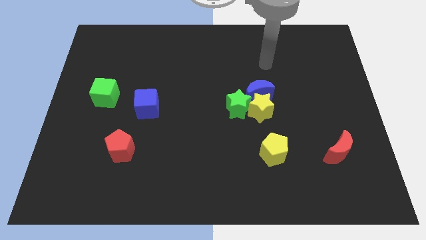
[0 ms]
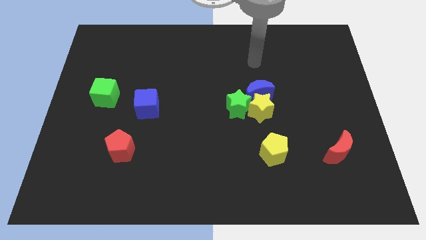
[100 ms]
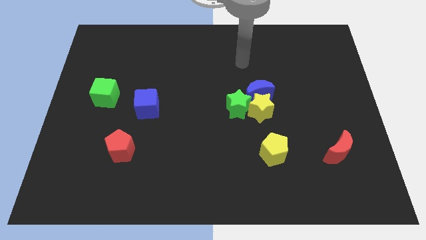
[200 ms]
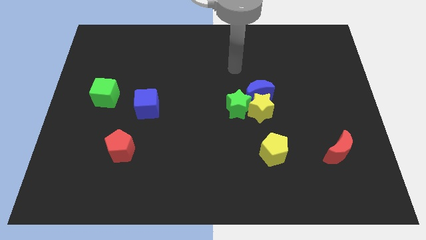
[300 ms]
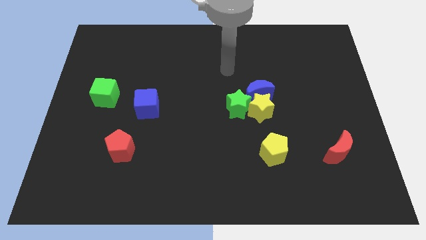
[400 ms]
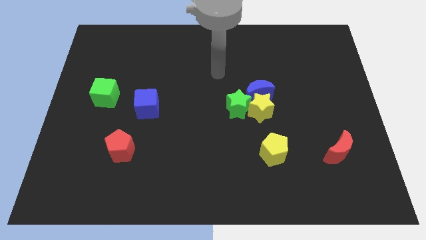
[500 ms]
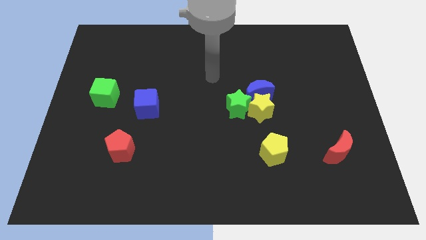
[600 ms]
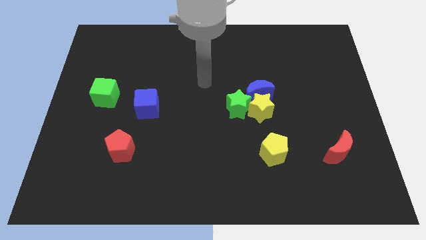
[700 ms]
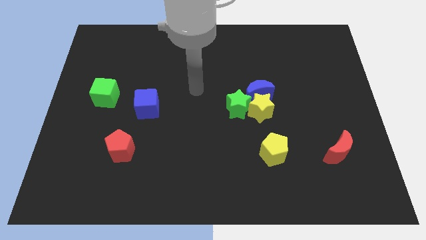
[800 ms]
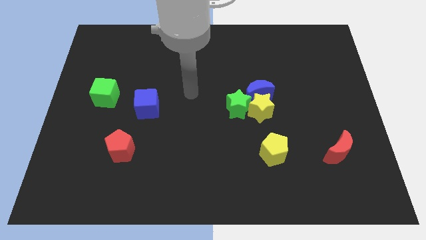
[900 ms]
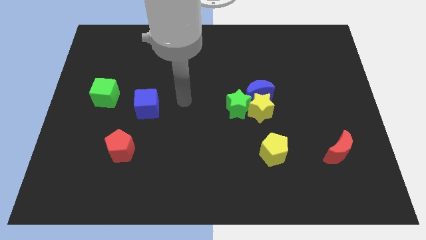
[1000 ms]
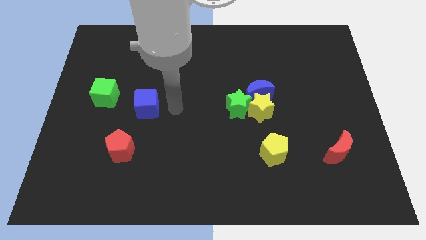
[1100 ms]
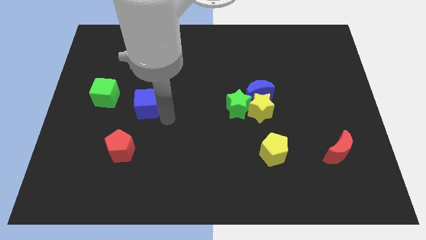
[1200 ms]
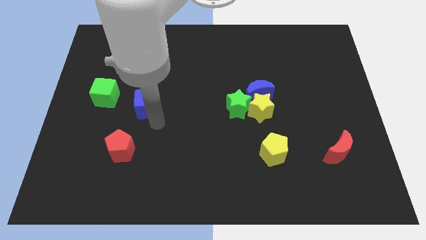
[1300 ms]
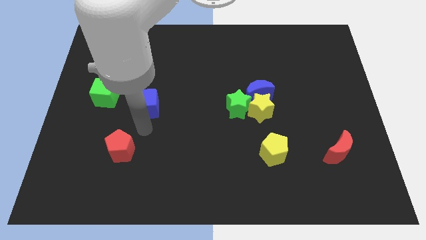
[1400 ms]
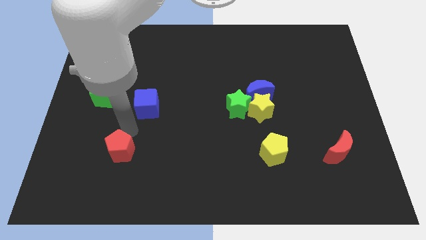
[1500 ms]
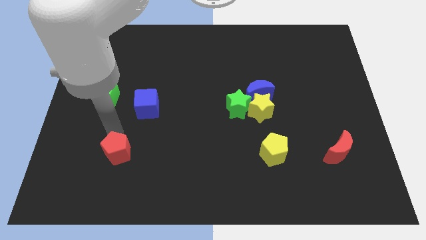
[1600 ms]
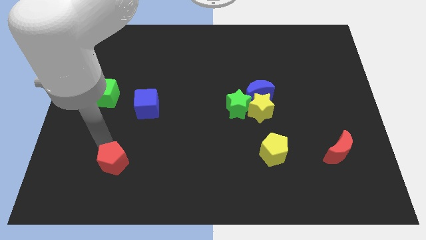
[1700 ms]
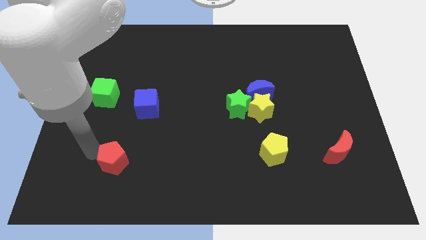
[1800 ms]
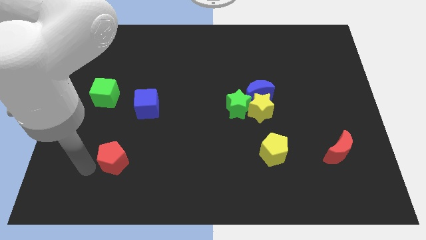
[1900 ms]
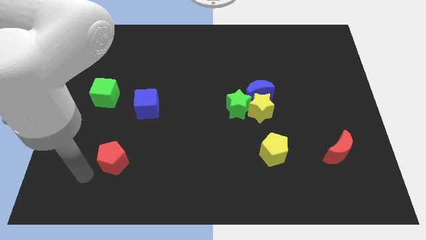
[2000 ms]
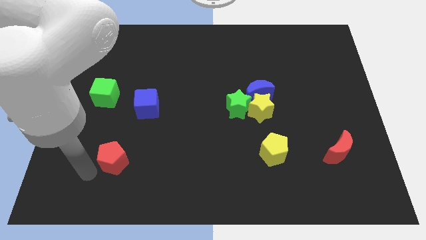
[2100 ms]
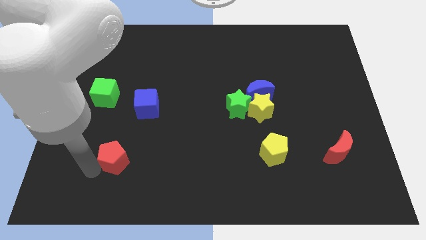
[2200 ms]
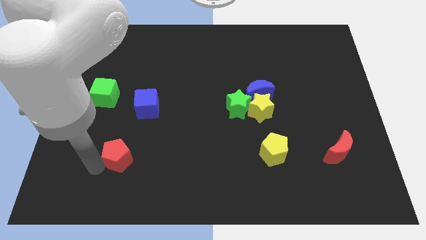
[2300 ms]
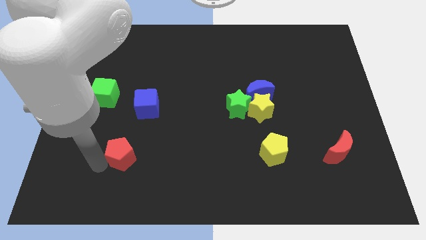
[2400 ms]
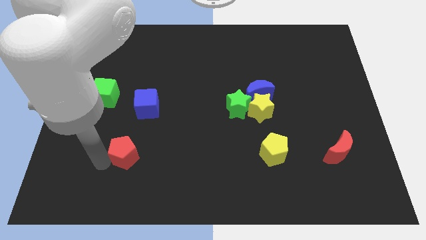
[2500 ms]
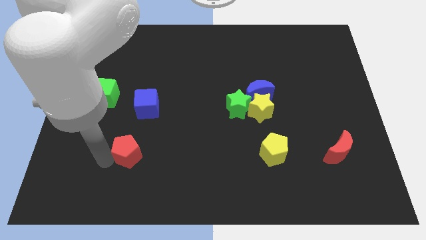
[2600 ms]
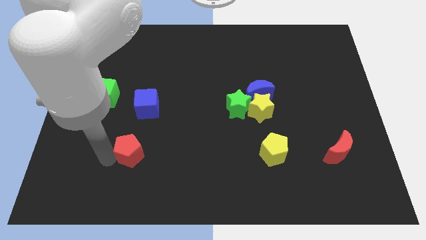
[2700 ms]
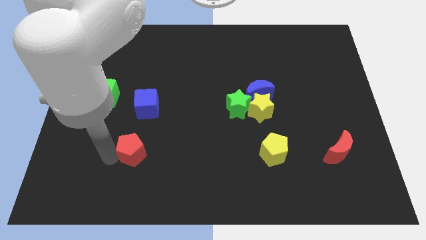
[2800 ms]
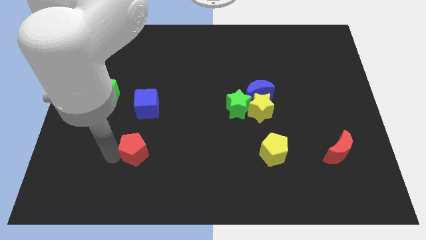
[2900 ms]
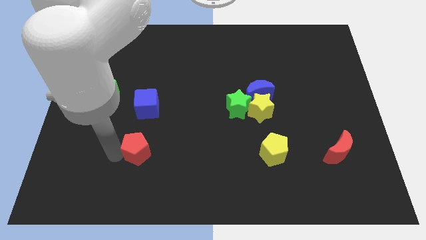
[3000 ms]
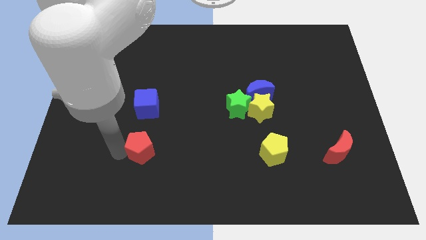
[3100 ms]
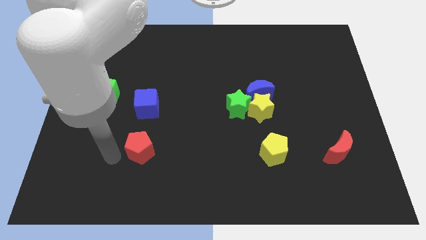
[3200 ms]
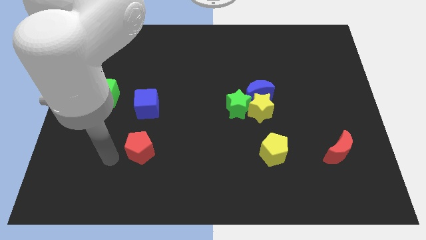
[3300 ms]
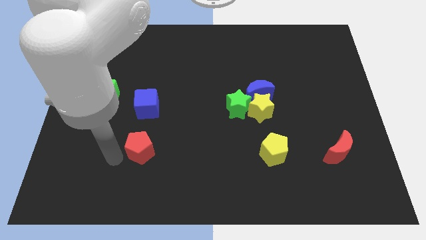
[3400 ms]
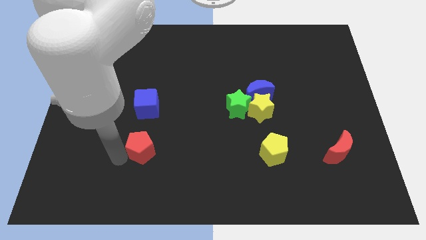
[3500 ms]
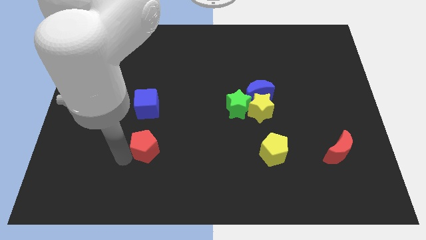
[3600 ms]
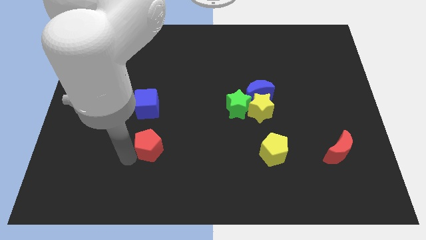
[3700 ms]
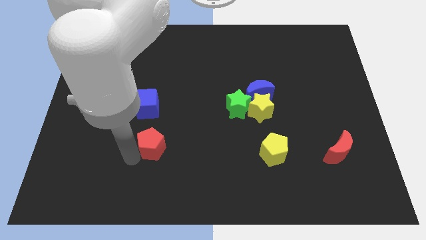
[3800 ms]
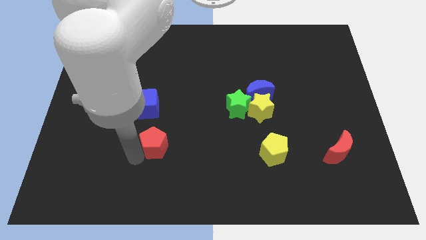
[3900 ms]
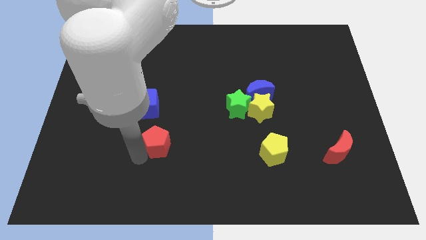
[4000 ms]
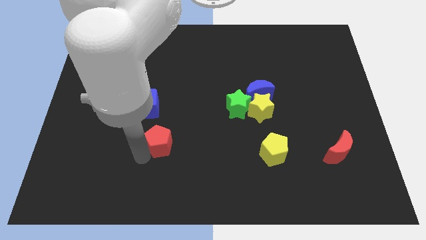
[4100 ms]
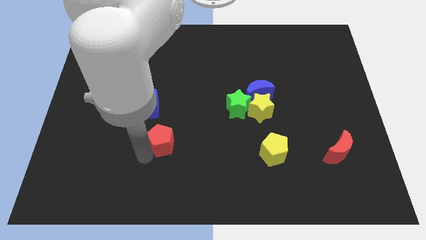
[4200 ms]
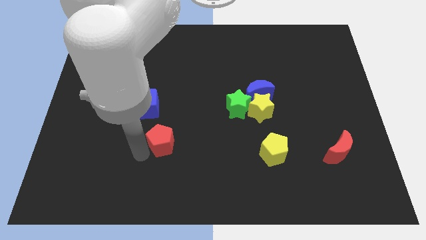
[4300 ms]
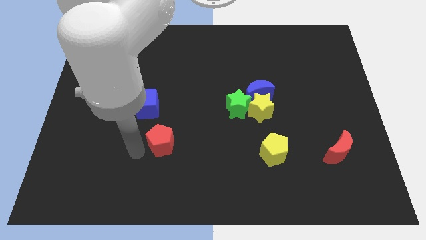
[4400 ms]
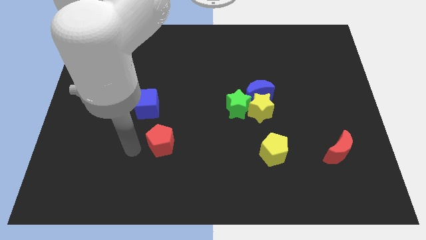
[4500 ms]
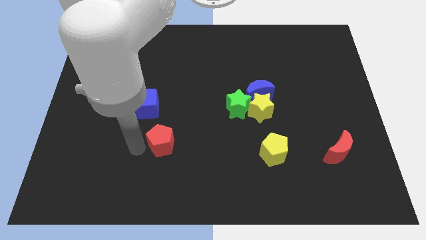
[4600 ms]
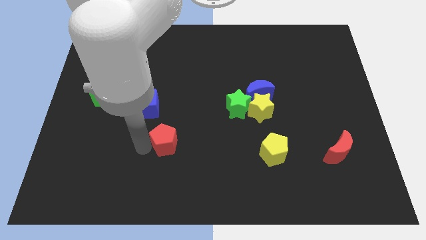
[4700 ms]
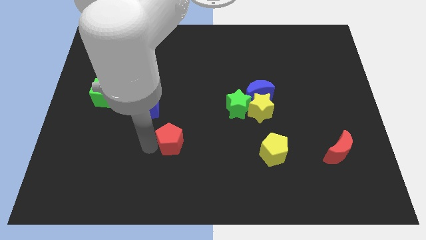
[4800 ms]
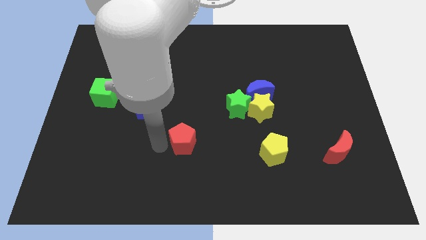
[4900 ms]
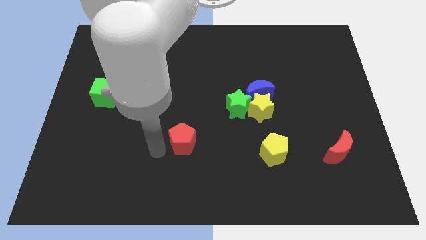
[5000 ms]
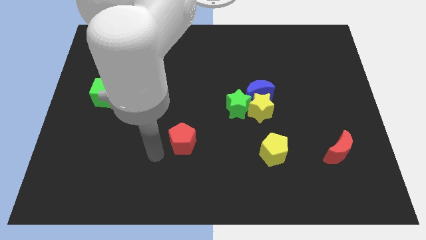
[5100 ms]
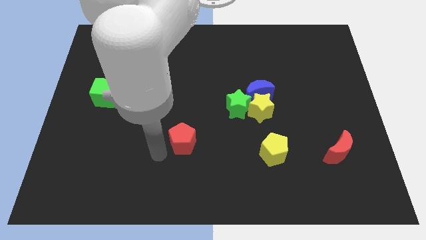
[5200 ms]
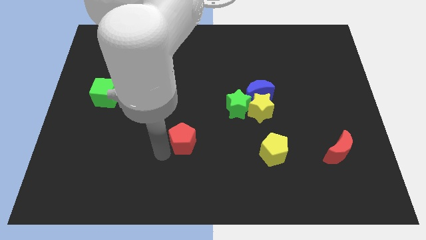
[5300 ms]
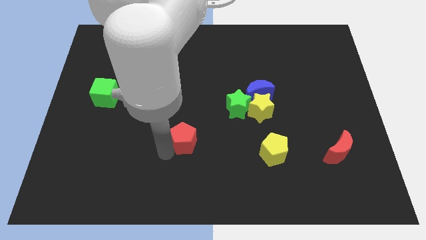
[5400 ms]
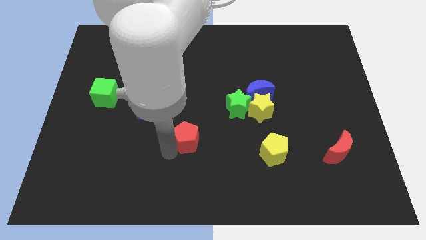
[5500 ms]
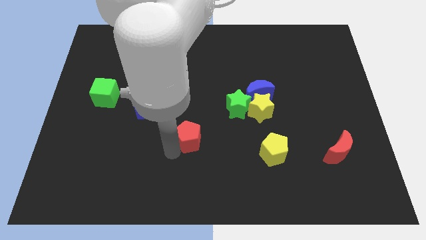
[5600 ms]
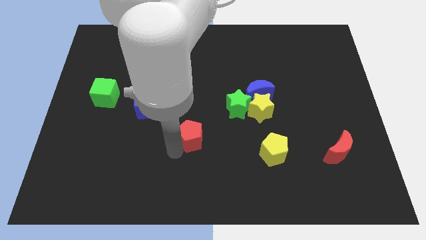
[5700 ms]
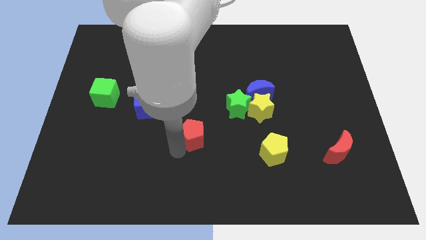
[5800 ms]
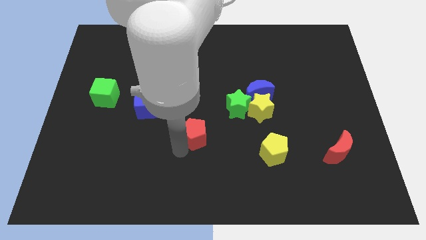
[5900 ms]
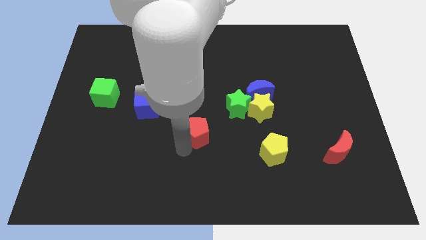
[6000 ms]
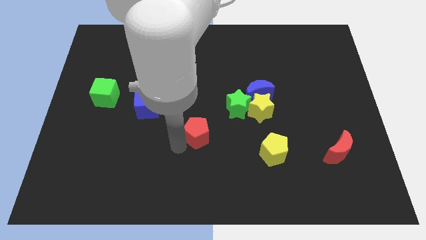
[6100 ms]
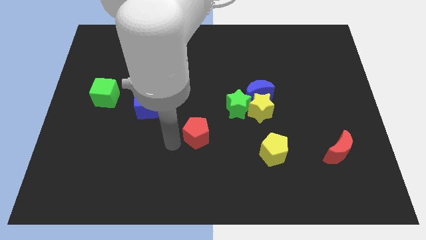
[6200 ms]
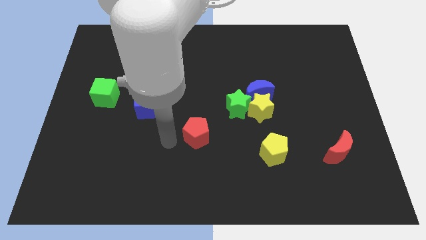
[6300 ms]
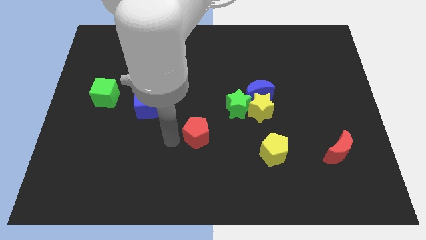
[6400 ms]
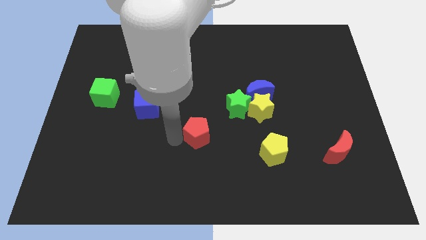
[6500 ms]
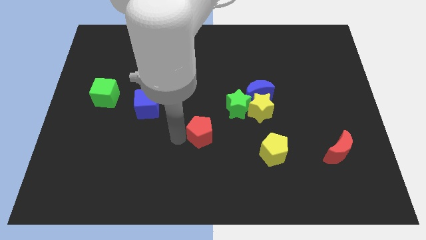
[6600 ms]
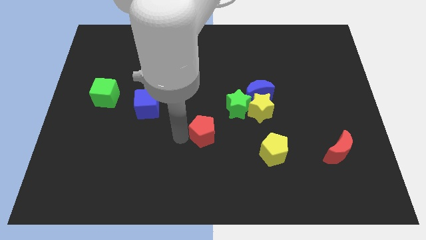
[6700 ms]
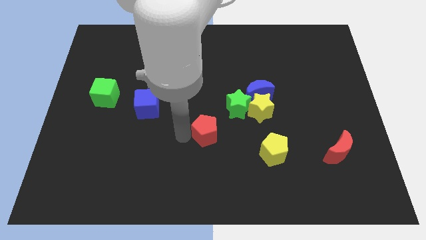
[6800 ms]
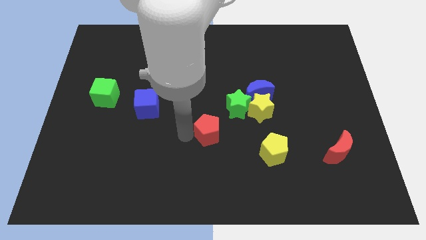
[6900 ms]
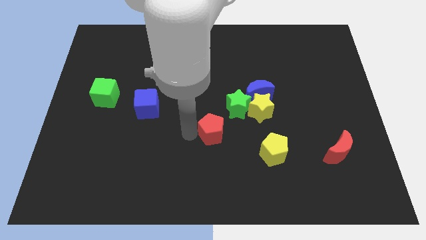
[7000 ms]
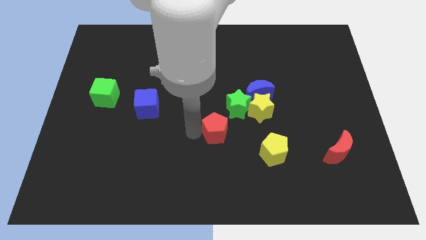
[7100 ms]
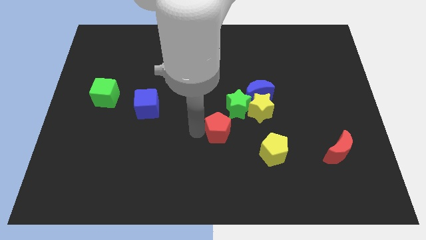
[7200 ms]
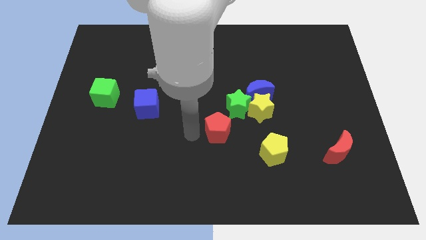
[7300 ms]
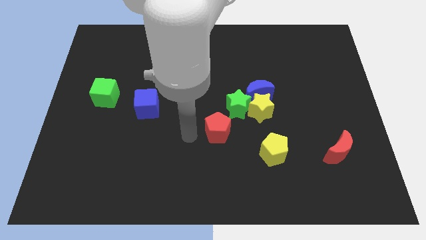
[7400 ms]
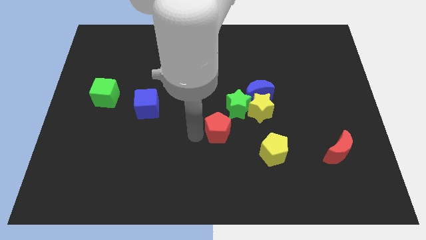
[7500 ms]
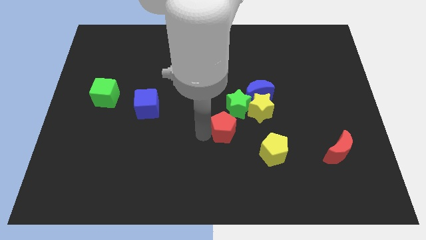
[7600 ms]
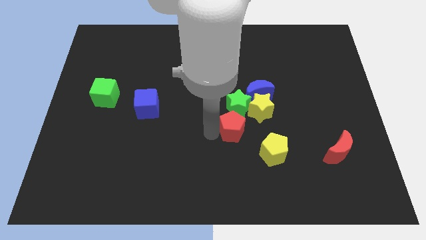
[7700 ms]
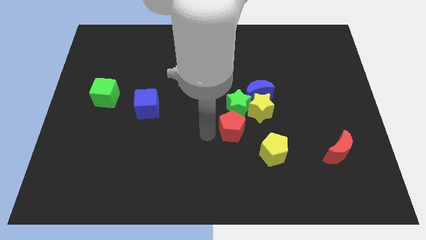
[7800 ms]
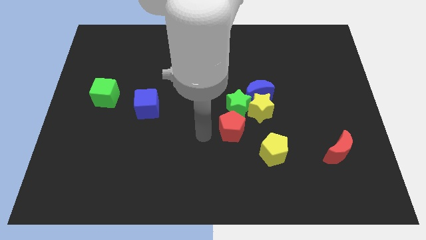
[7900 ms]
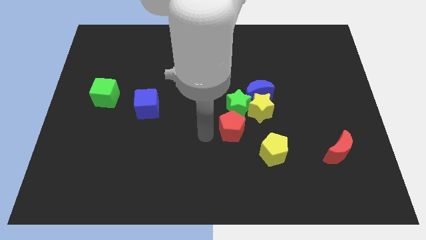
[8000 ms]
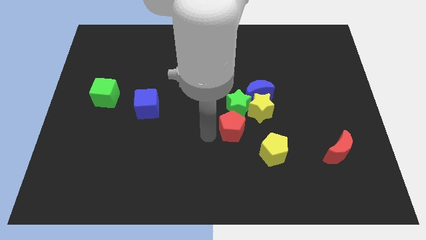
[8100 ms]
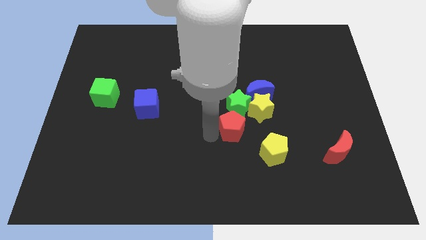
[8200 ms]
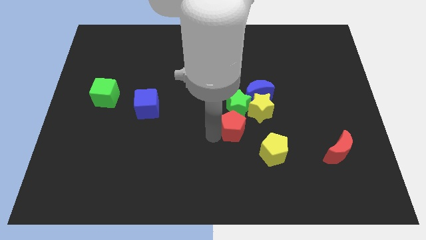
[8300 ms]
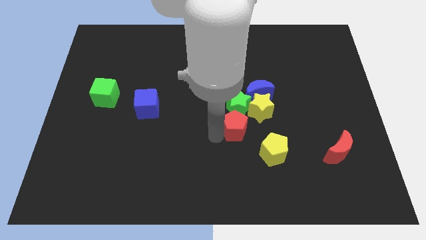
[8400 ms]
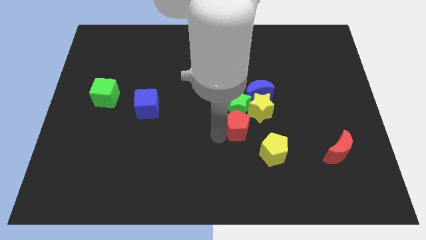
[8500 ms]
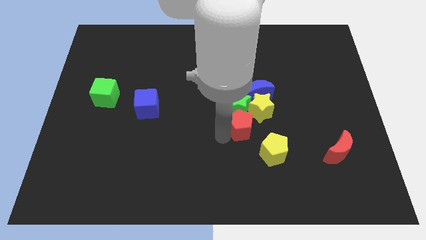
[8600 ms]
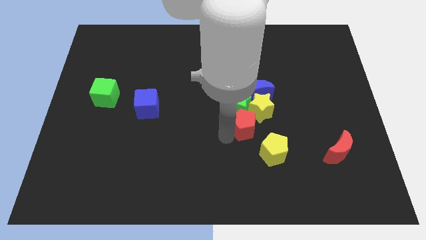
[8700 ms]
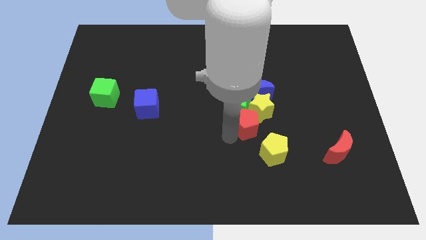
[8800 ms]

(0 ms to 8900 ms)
slide the red pentagon next to the yellow star
